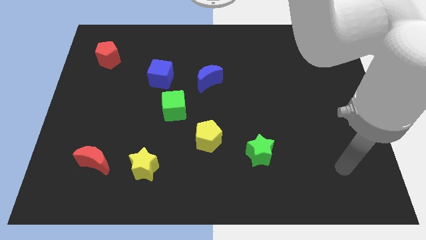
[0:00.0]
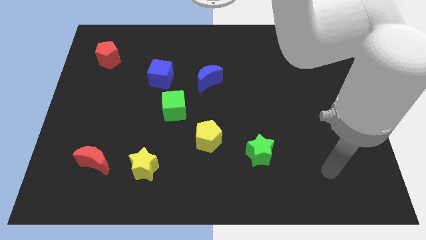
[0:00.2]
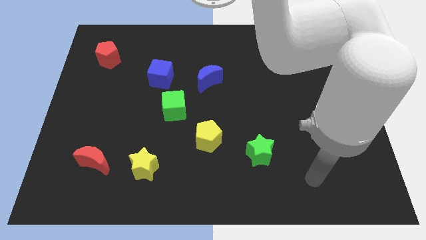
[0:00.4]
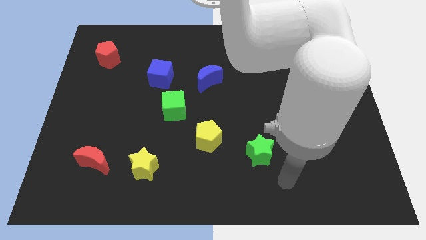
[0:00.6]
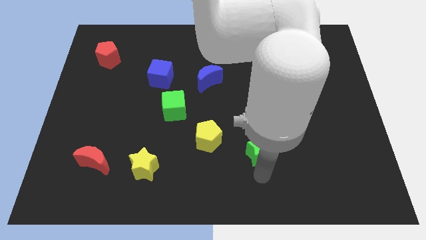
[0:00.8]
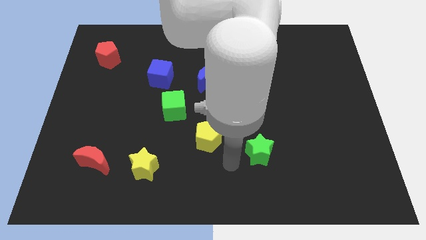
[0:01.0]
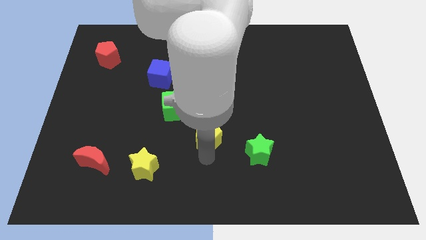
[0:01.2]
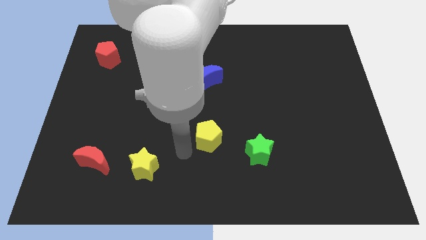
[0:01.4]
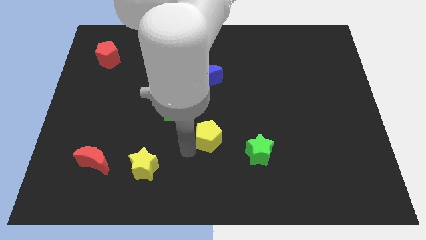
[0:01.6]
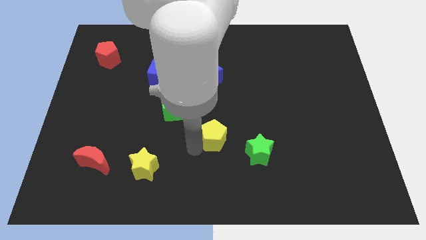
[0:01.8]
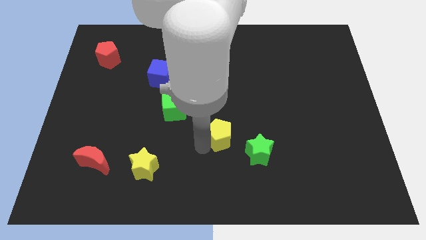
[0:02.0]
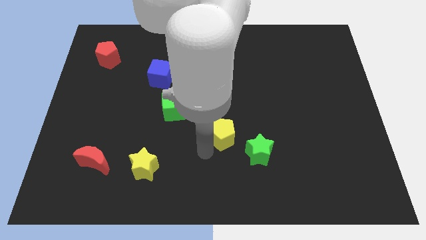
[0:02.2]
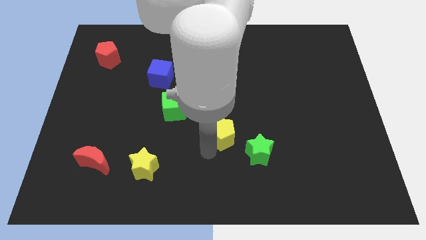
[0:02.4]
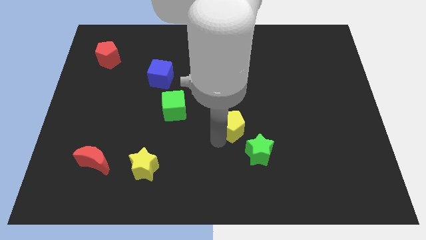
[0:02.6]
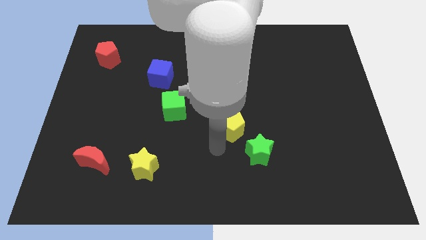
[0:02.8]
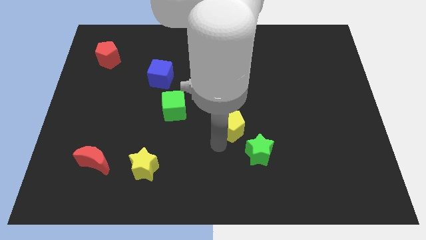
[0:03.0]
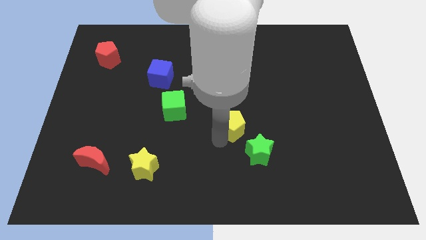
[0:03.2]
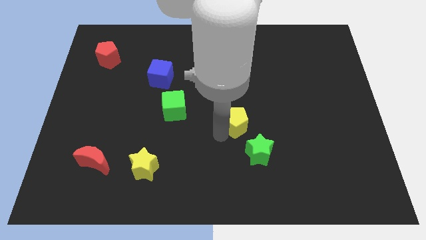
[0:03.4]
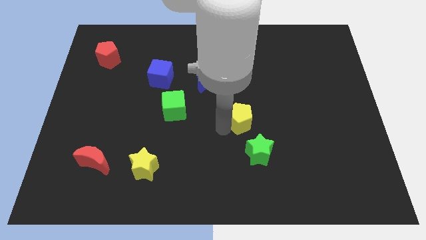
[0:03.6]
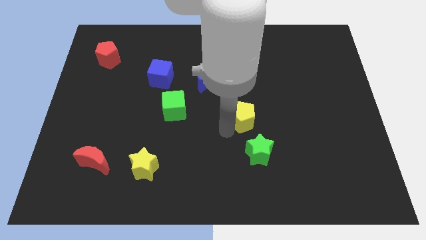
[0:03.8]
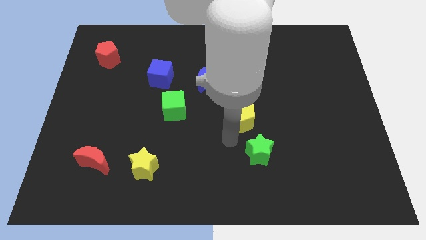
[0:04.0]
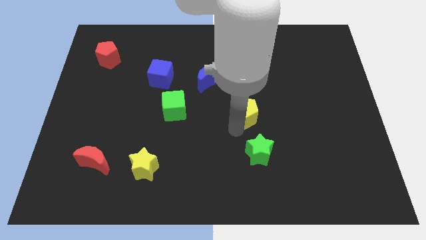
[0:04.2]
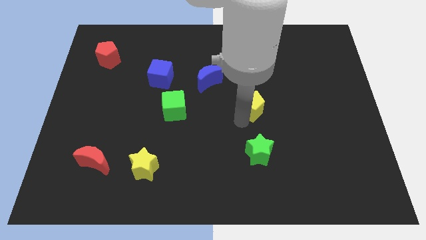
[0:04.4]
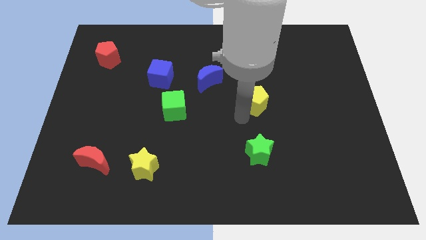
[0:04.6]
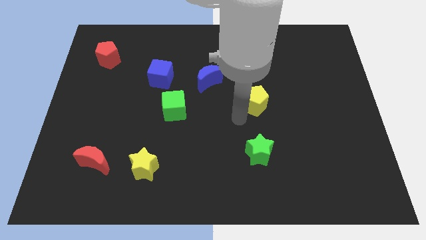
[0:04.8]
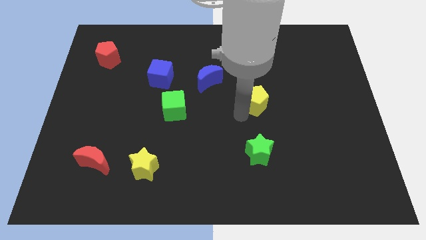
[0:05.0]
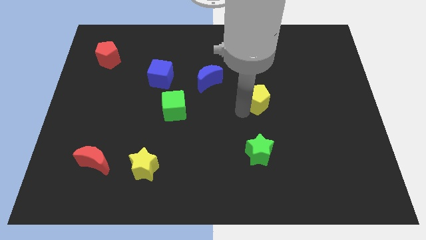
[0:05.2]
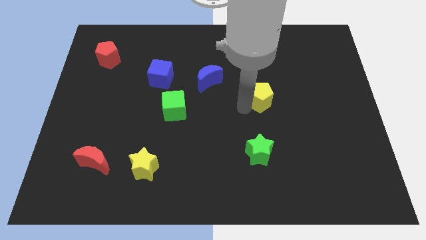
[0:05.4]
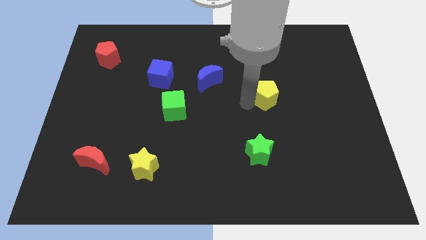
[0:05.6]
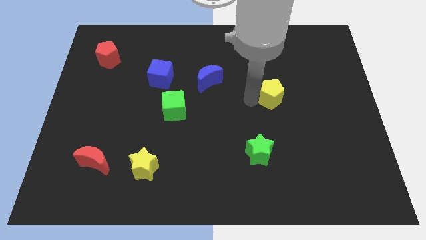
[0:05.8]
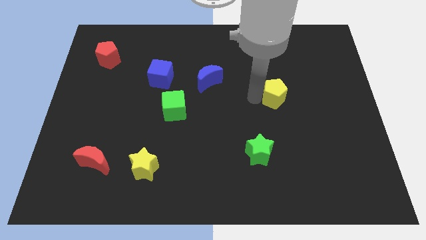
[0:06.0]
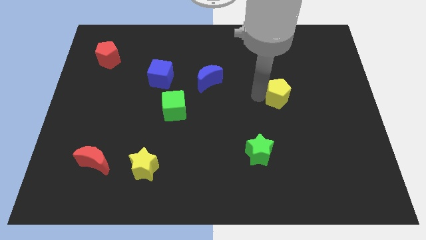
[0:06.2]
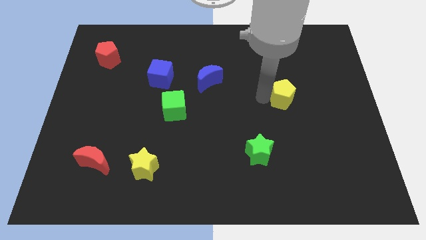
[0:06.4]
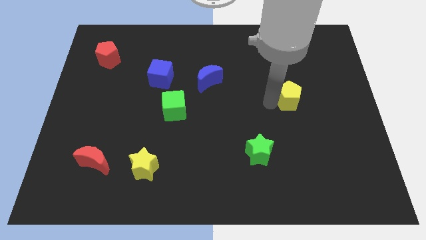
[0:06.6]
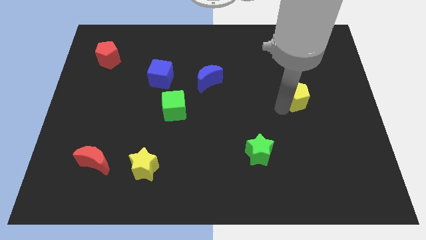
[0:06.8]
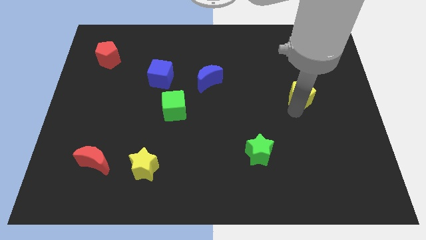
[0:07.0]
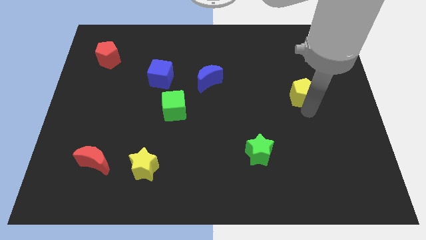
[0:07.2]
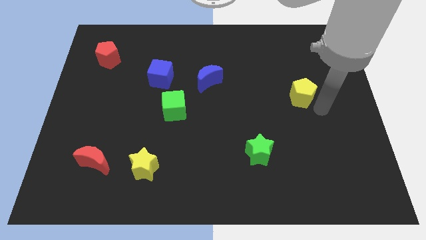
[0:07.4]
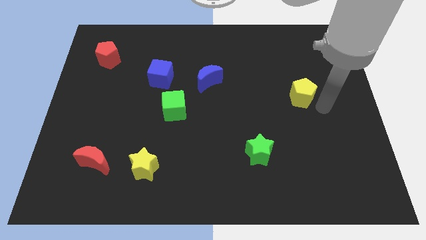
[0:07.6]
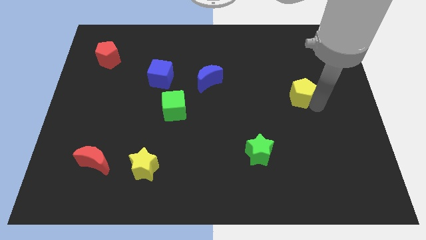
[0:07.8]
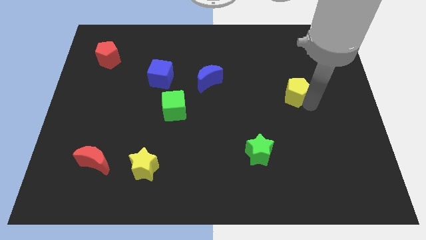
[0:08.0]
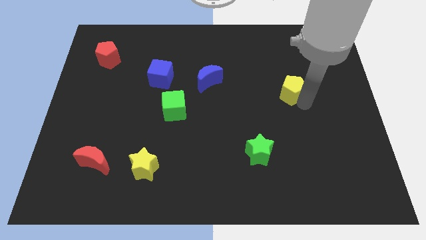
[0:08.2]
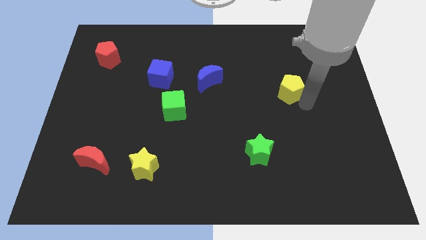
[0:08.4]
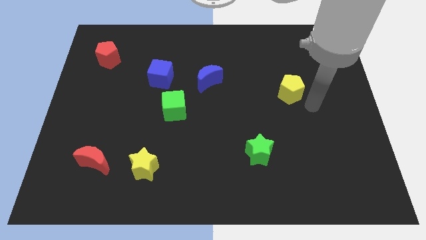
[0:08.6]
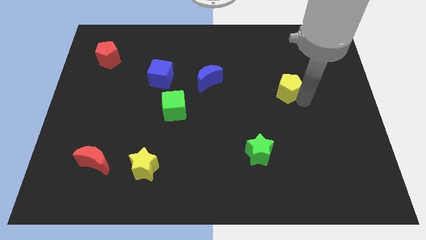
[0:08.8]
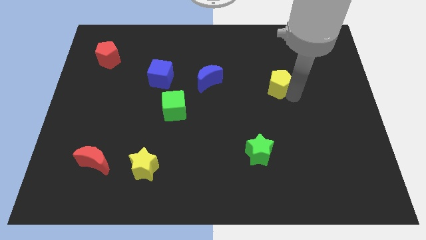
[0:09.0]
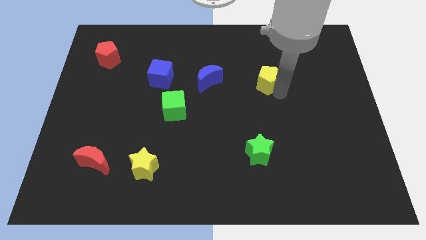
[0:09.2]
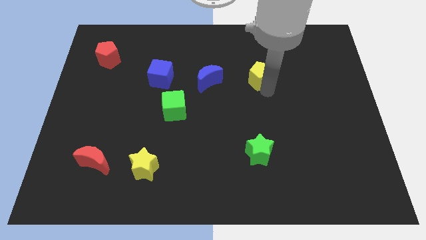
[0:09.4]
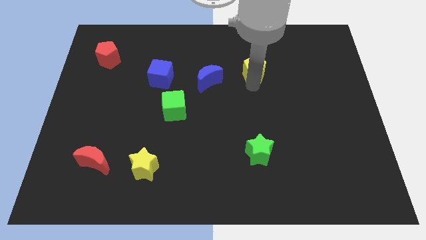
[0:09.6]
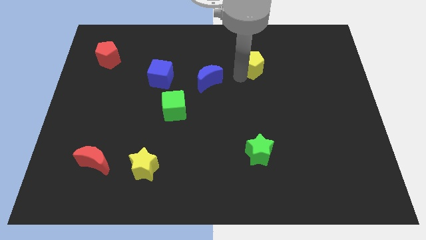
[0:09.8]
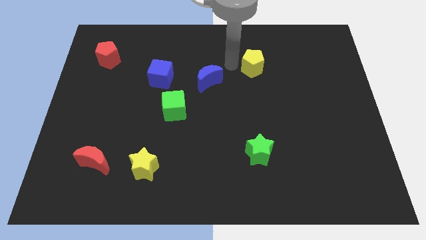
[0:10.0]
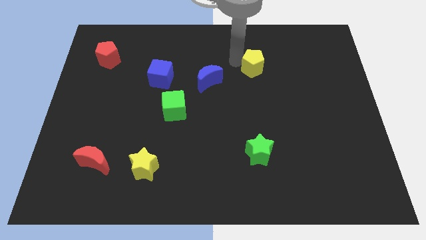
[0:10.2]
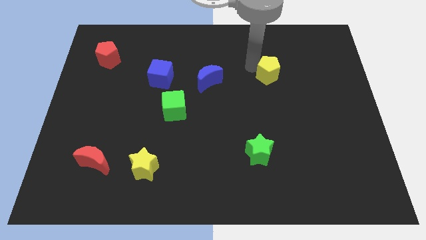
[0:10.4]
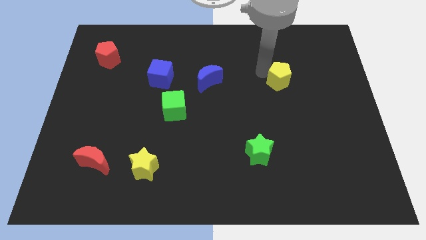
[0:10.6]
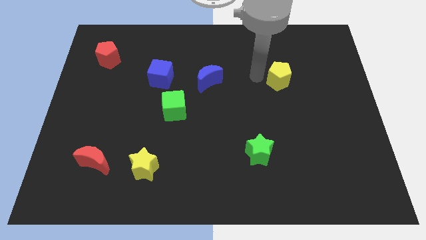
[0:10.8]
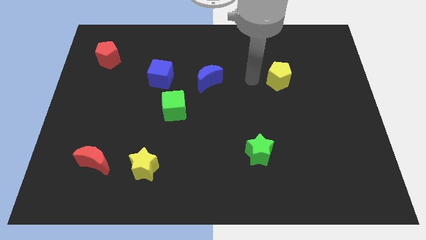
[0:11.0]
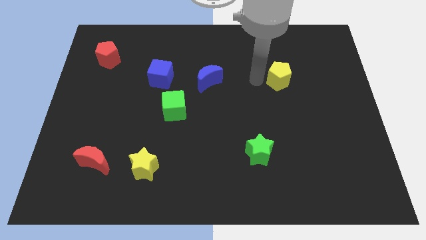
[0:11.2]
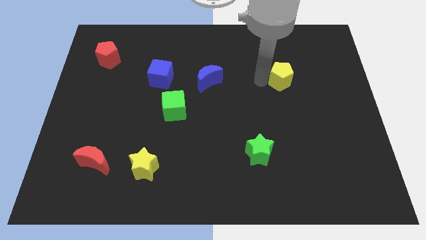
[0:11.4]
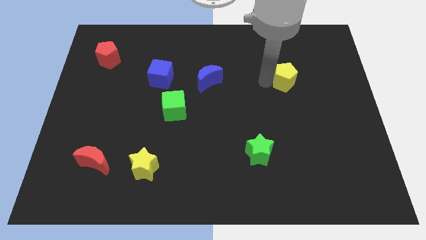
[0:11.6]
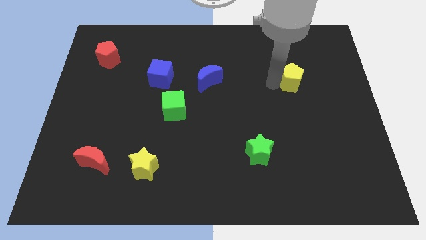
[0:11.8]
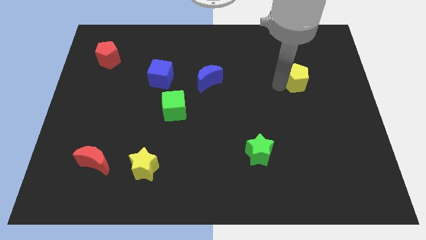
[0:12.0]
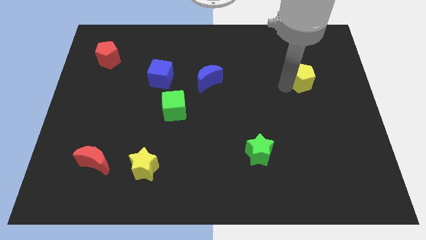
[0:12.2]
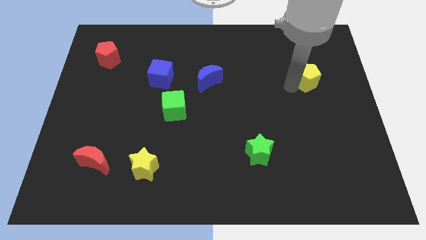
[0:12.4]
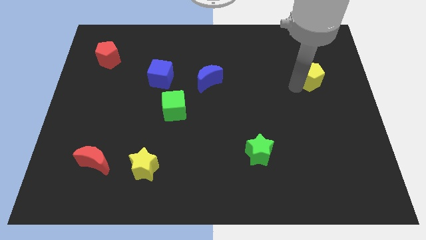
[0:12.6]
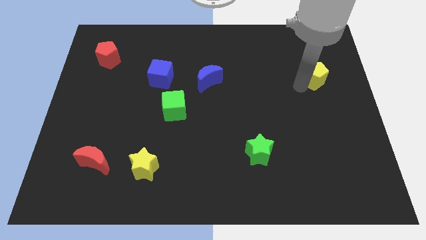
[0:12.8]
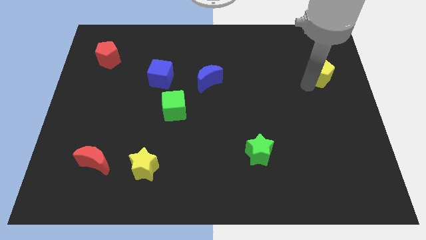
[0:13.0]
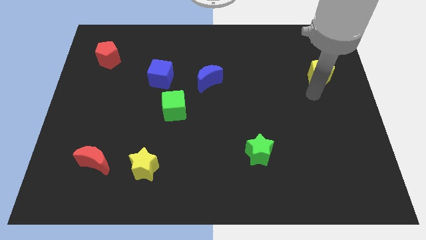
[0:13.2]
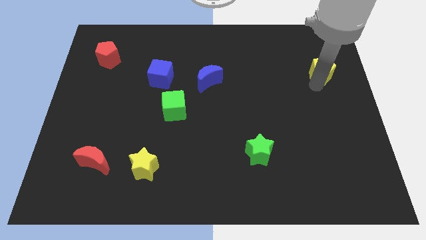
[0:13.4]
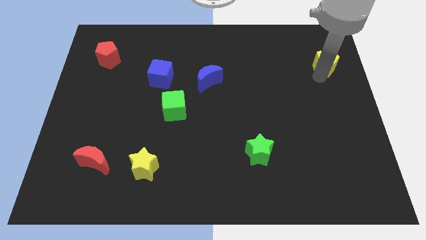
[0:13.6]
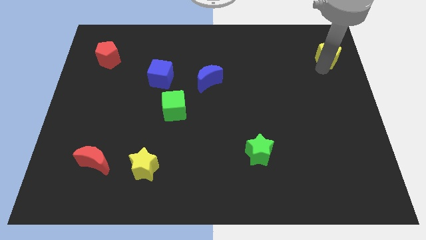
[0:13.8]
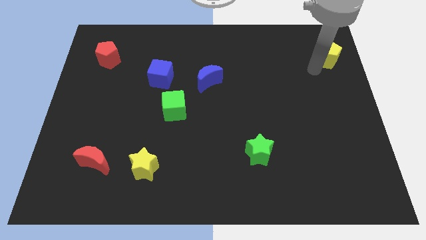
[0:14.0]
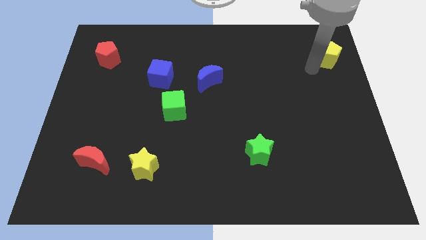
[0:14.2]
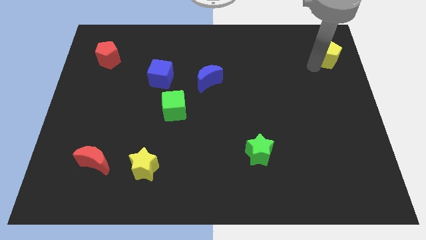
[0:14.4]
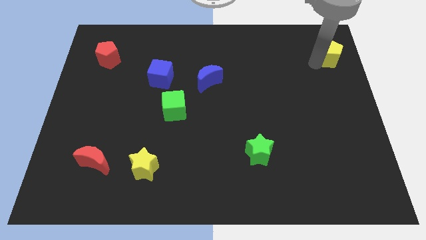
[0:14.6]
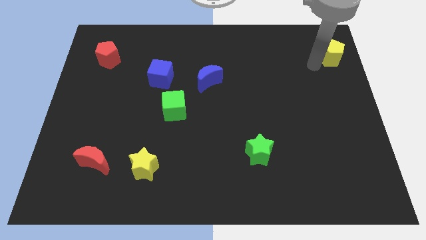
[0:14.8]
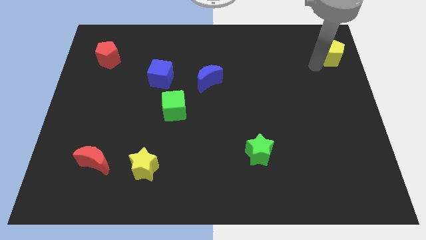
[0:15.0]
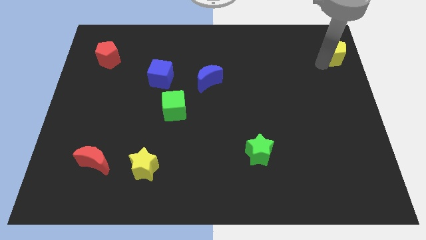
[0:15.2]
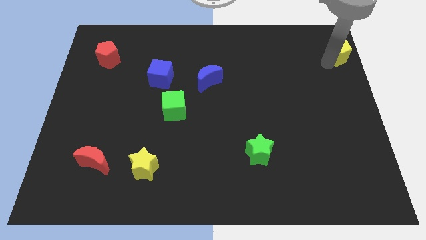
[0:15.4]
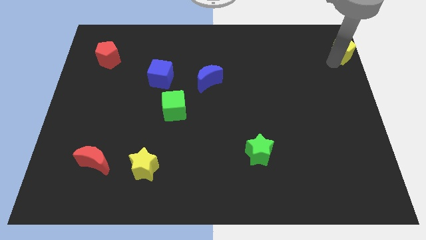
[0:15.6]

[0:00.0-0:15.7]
slide the yellow pentagon to the upper right corner
